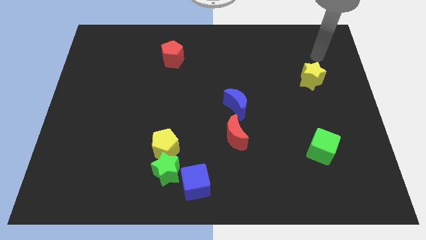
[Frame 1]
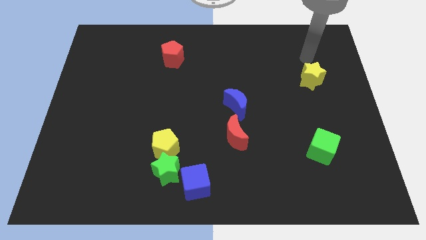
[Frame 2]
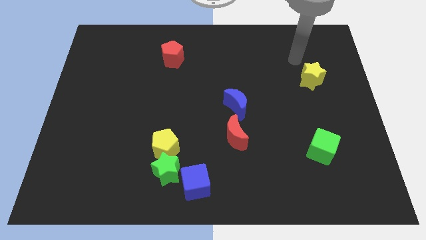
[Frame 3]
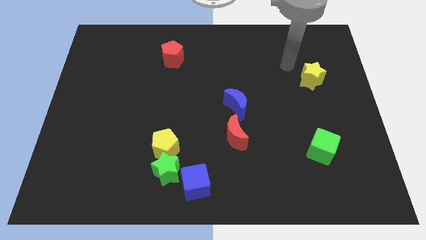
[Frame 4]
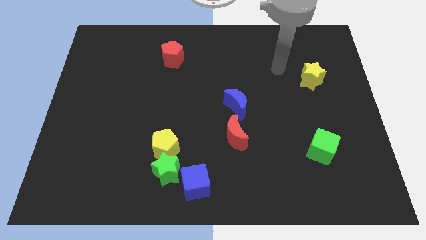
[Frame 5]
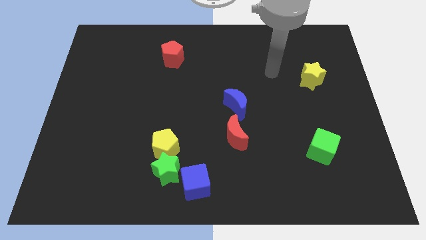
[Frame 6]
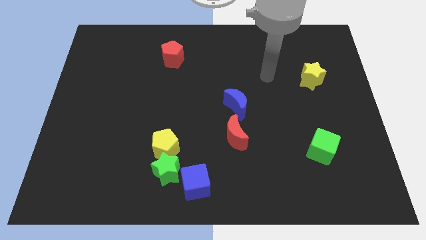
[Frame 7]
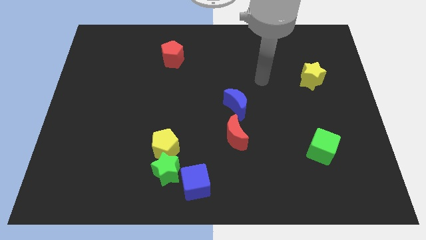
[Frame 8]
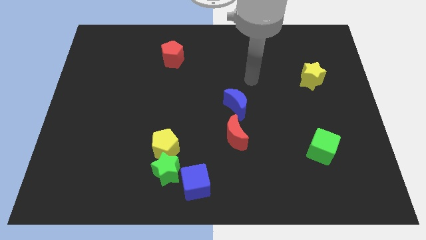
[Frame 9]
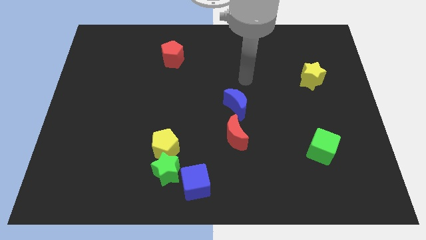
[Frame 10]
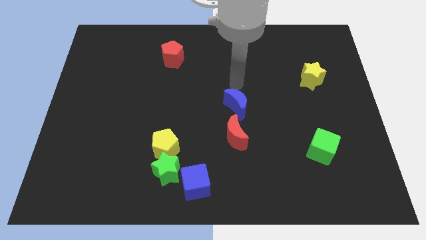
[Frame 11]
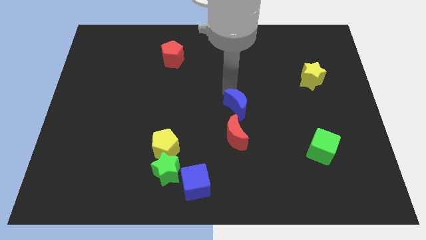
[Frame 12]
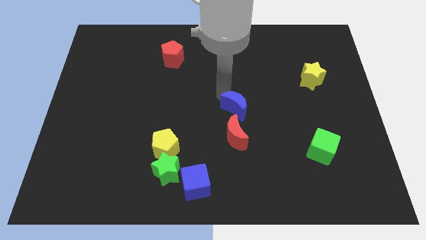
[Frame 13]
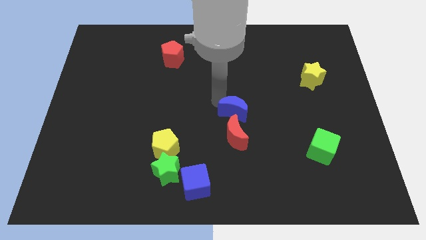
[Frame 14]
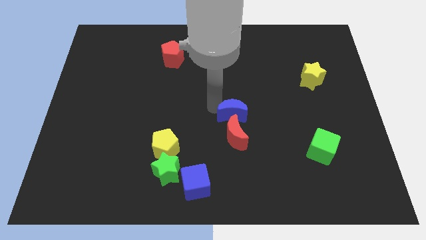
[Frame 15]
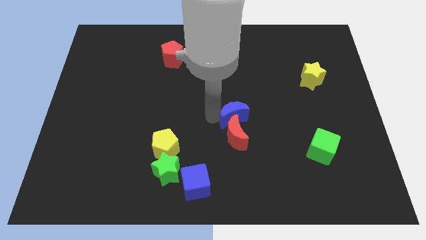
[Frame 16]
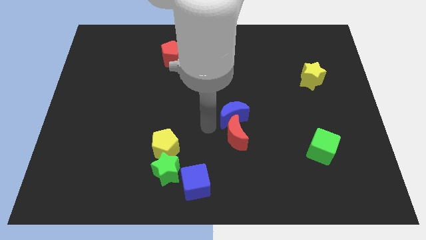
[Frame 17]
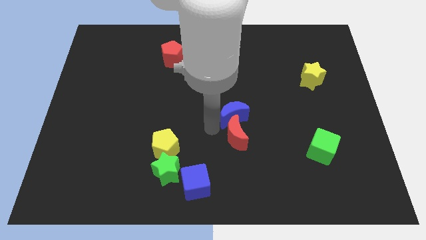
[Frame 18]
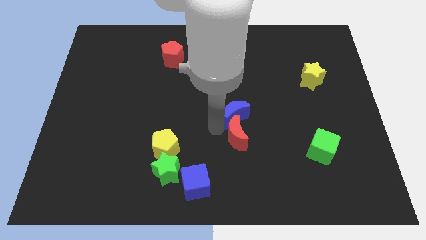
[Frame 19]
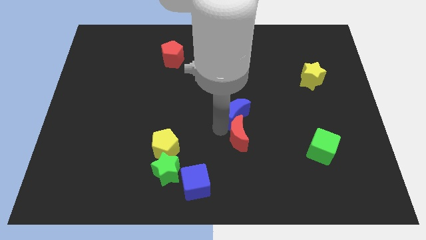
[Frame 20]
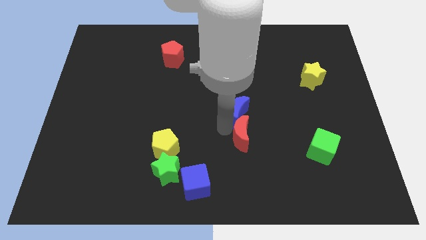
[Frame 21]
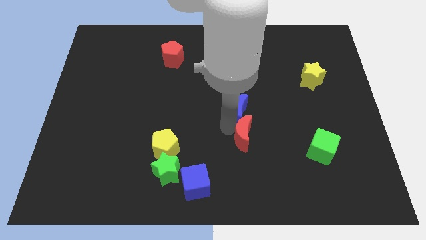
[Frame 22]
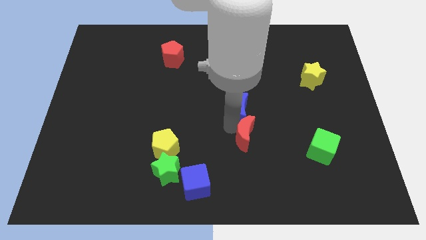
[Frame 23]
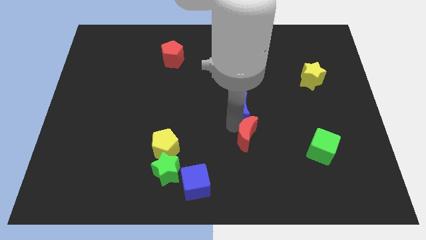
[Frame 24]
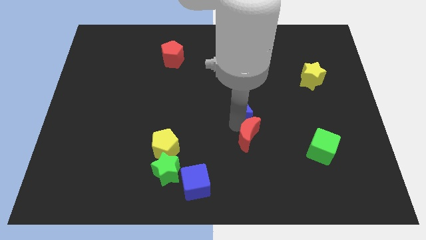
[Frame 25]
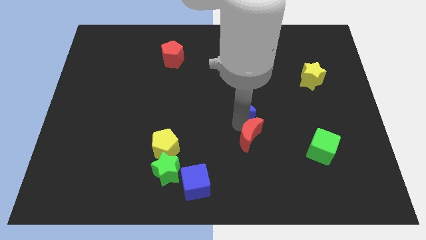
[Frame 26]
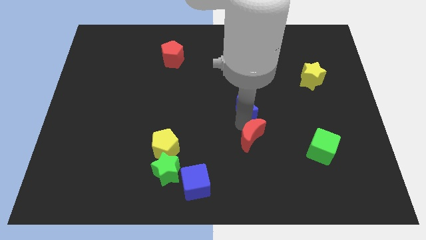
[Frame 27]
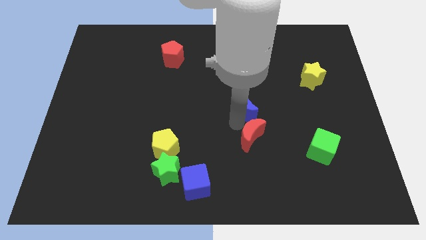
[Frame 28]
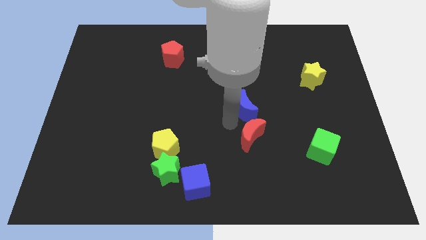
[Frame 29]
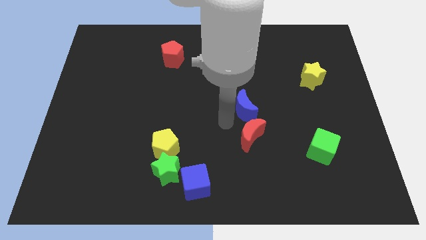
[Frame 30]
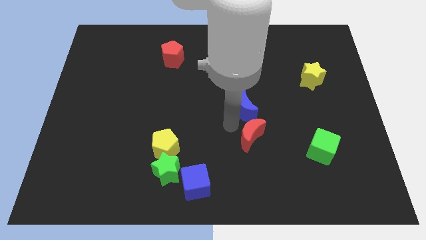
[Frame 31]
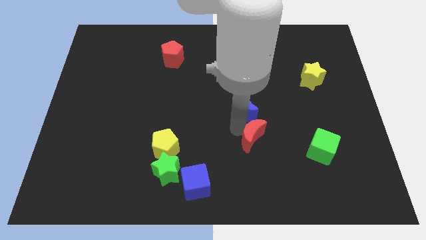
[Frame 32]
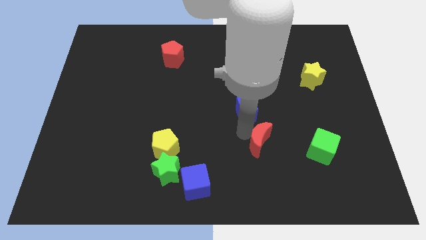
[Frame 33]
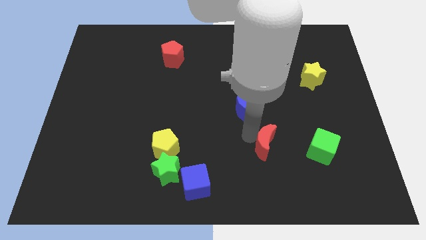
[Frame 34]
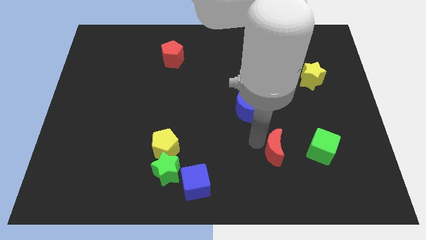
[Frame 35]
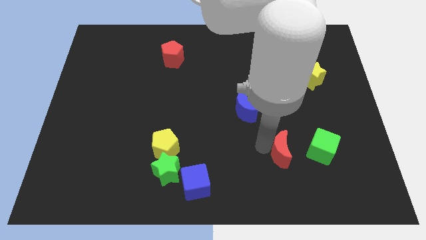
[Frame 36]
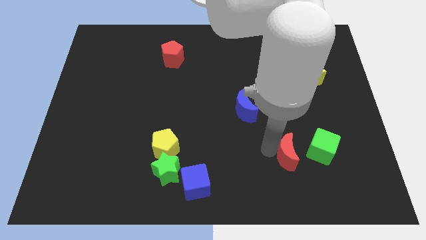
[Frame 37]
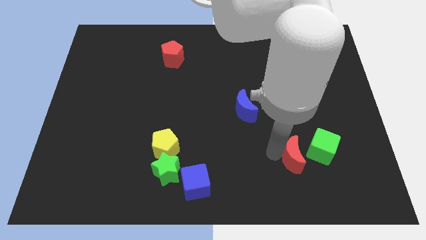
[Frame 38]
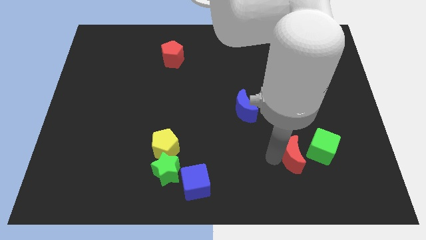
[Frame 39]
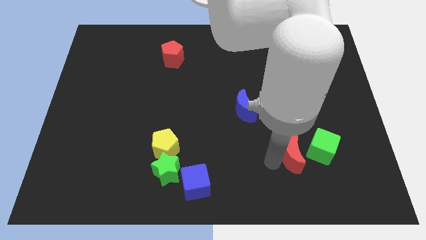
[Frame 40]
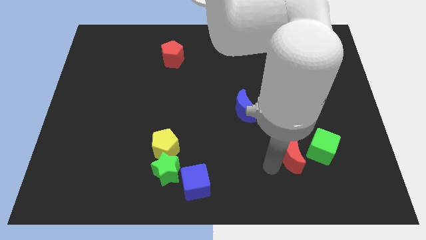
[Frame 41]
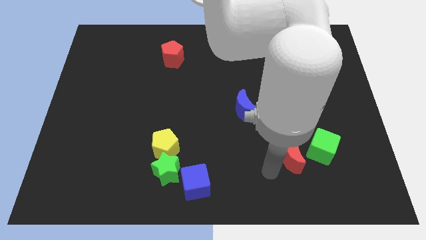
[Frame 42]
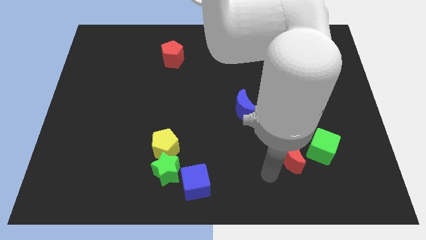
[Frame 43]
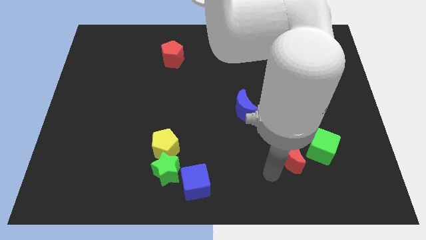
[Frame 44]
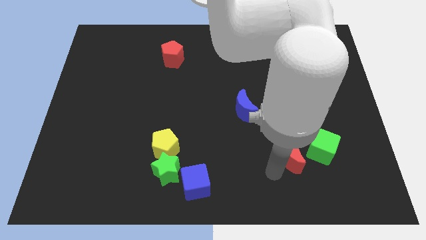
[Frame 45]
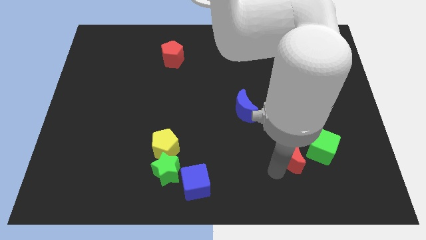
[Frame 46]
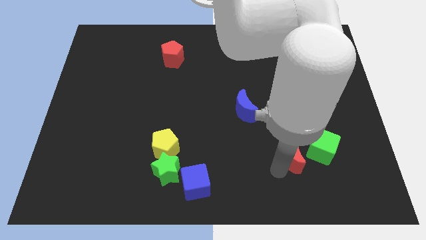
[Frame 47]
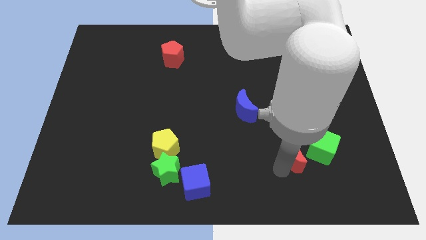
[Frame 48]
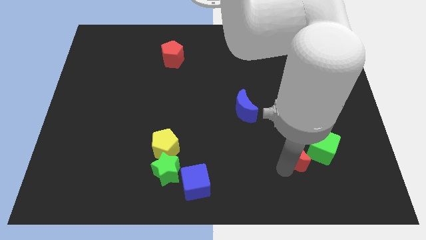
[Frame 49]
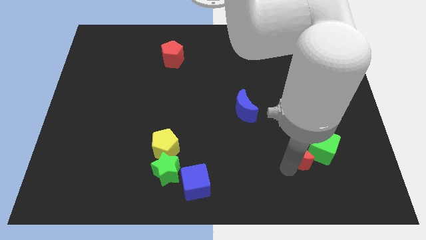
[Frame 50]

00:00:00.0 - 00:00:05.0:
slide the red moon towards the green cube

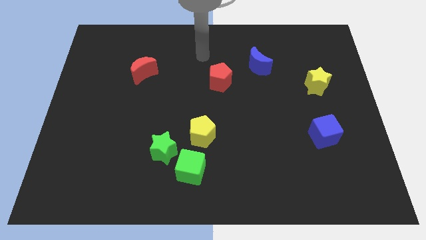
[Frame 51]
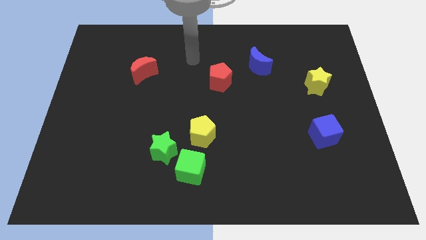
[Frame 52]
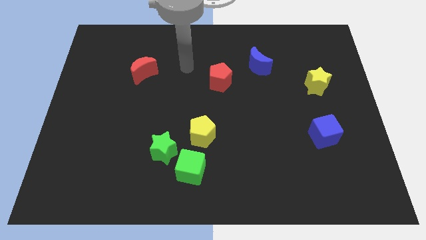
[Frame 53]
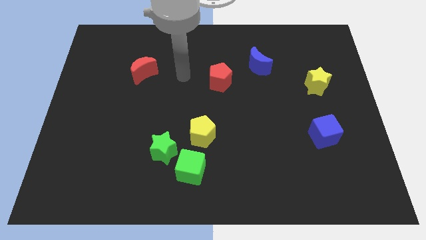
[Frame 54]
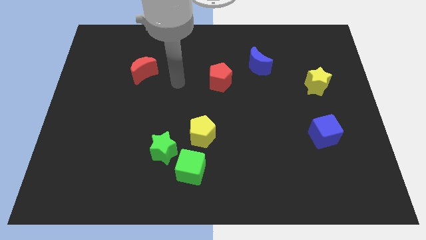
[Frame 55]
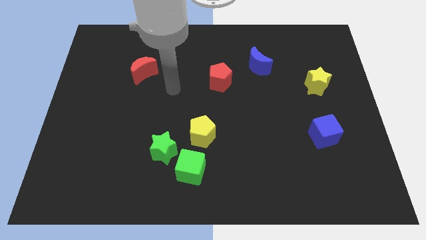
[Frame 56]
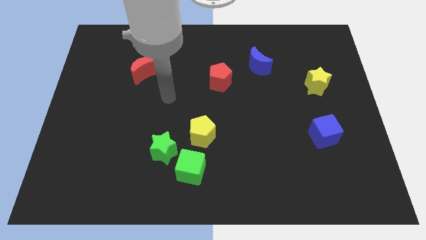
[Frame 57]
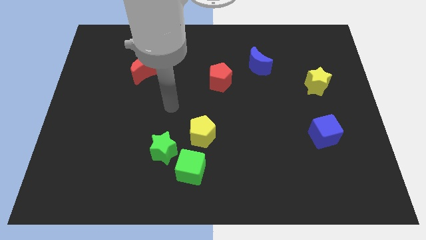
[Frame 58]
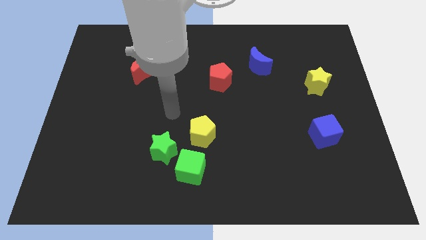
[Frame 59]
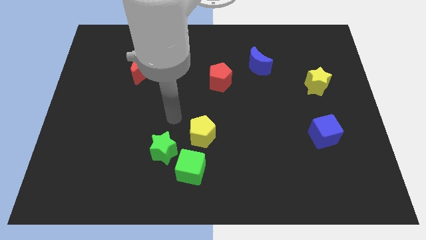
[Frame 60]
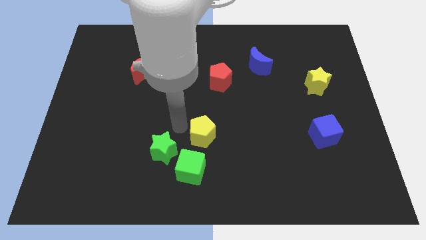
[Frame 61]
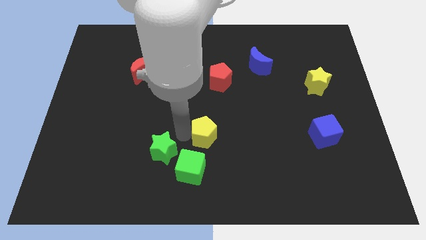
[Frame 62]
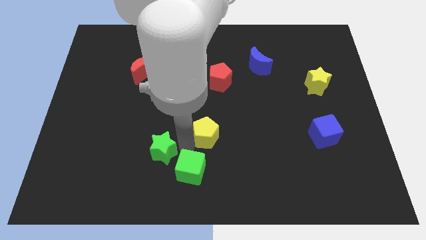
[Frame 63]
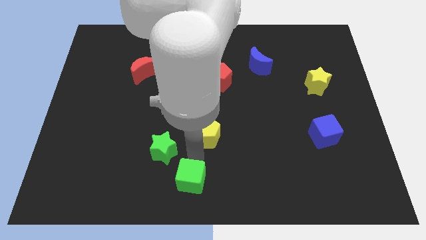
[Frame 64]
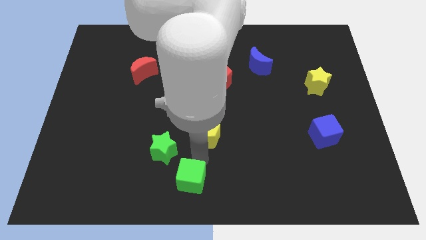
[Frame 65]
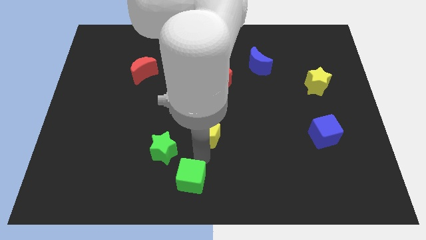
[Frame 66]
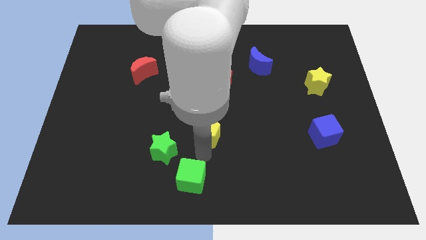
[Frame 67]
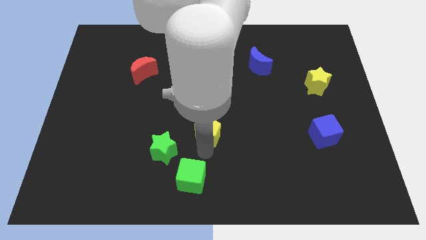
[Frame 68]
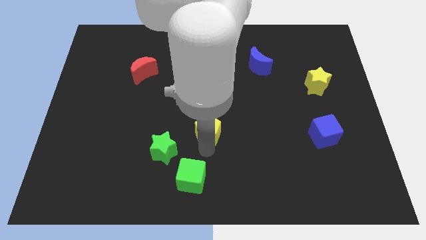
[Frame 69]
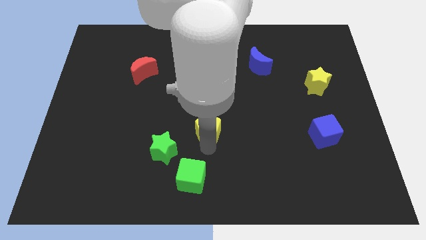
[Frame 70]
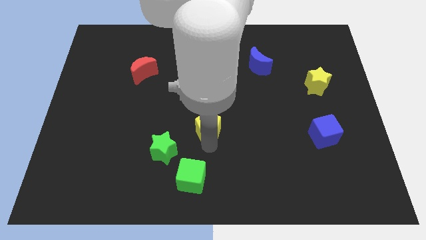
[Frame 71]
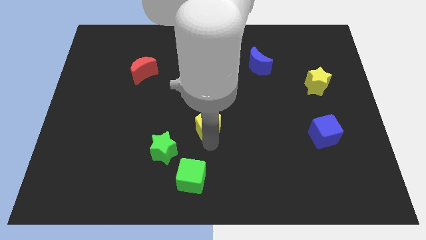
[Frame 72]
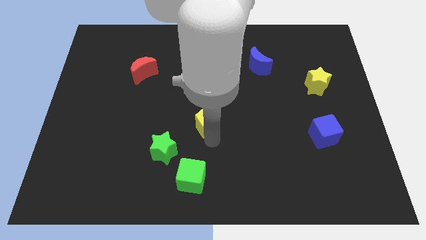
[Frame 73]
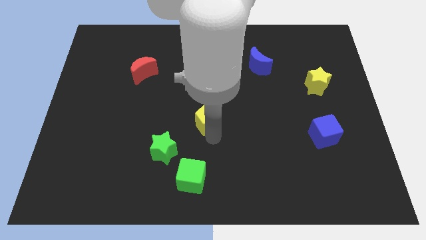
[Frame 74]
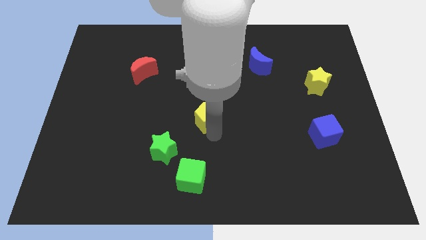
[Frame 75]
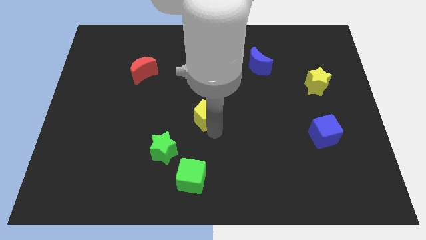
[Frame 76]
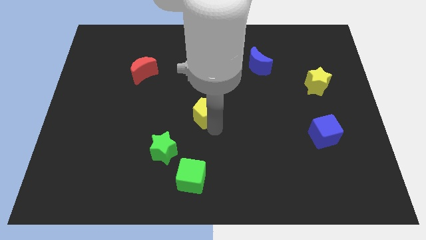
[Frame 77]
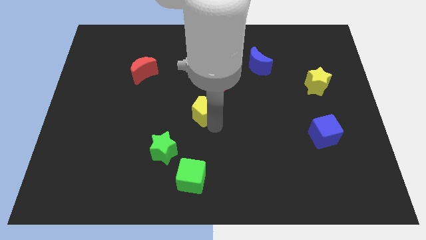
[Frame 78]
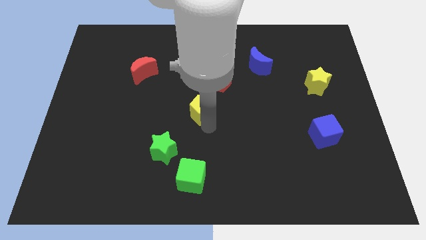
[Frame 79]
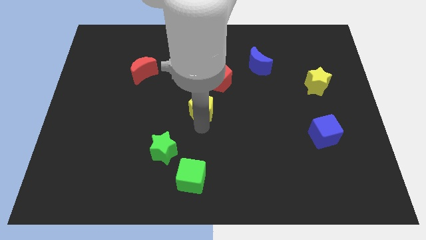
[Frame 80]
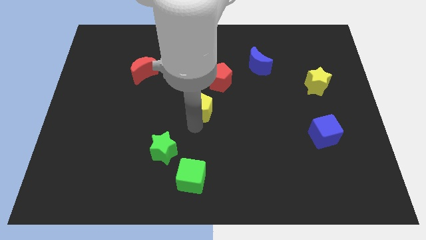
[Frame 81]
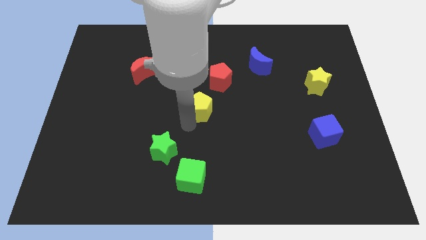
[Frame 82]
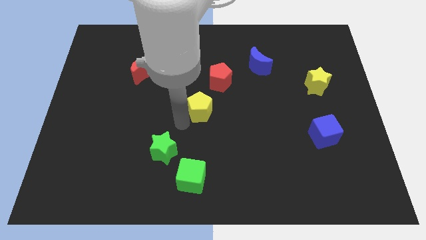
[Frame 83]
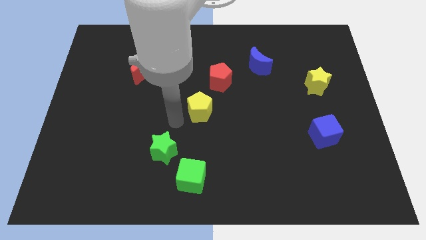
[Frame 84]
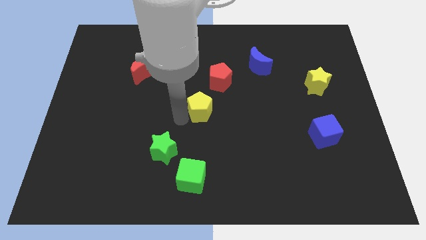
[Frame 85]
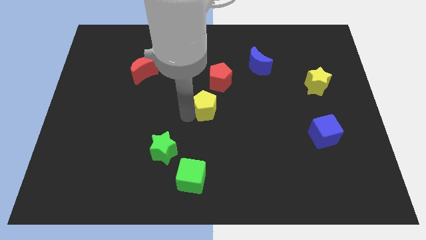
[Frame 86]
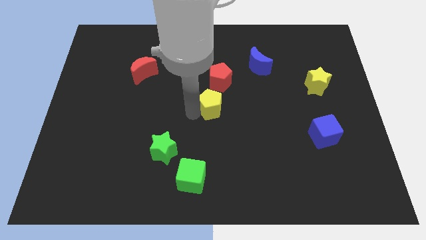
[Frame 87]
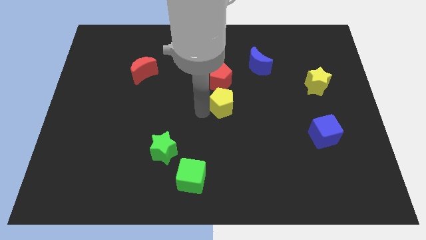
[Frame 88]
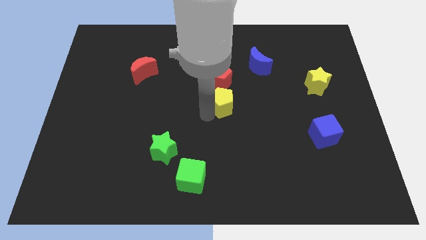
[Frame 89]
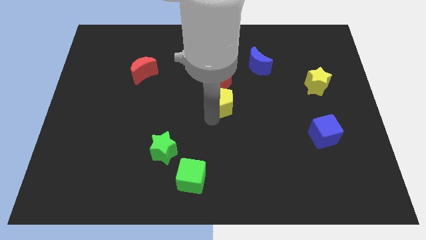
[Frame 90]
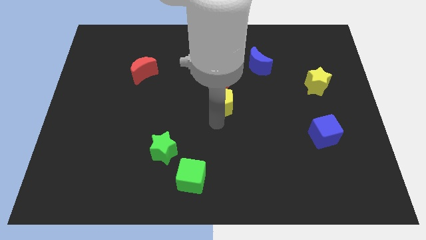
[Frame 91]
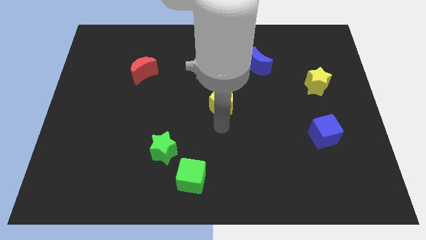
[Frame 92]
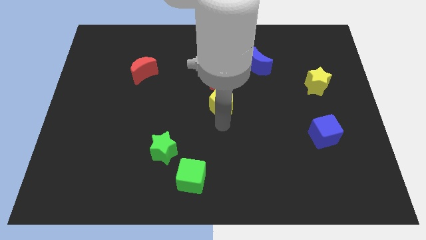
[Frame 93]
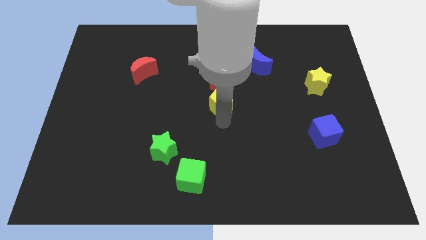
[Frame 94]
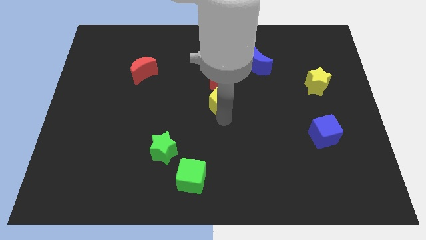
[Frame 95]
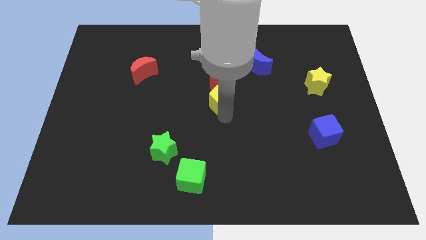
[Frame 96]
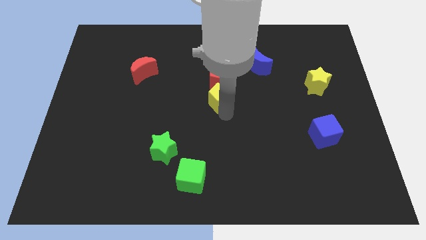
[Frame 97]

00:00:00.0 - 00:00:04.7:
push the yellow pentagon close to the red pentagon
